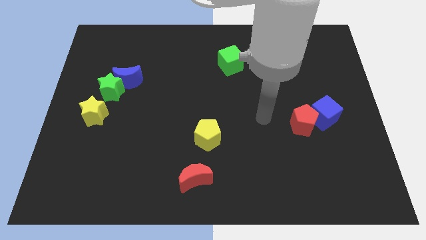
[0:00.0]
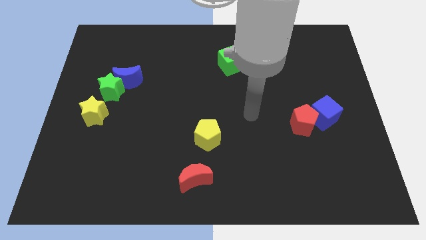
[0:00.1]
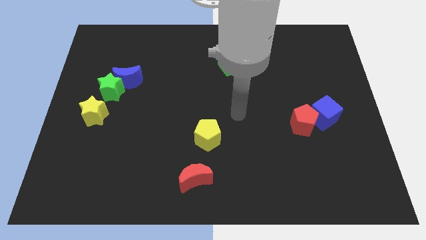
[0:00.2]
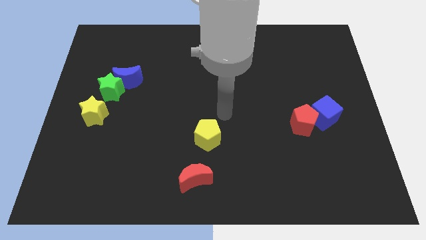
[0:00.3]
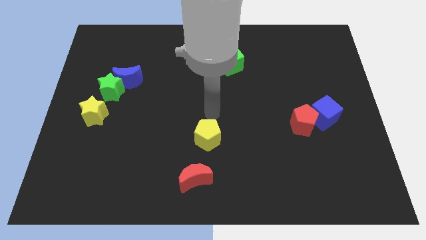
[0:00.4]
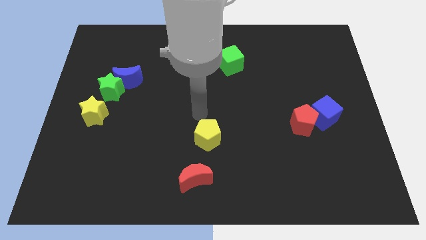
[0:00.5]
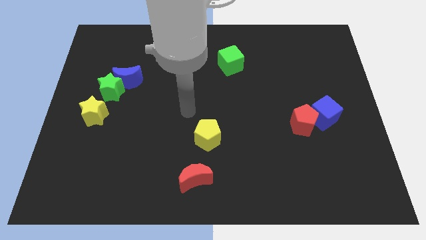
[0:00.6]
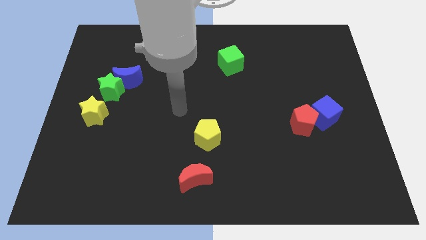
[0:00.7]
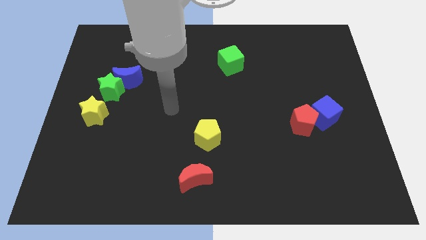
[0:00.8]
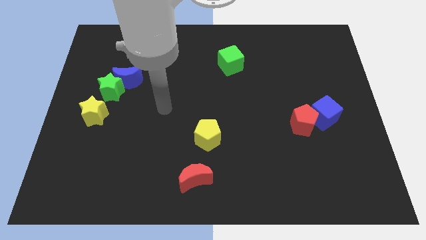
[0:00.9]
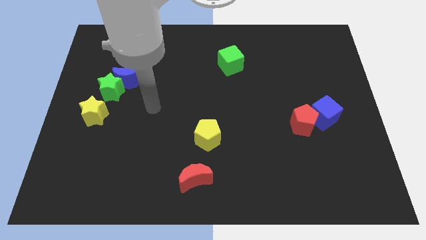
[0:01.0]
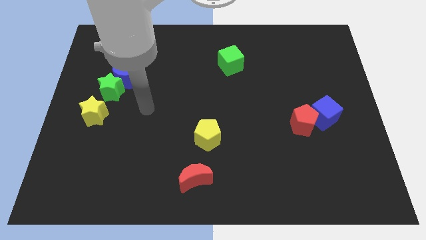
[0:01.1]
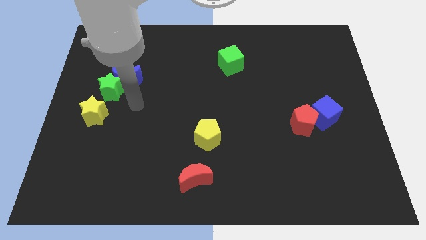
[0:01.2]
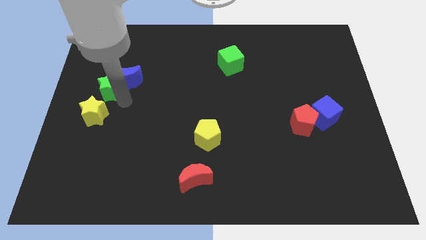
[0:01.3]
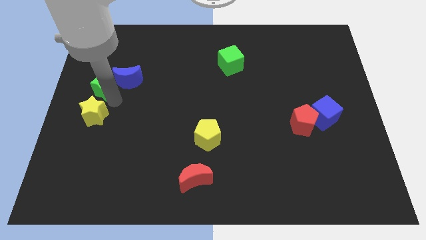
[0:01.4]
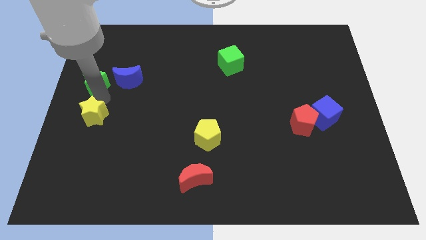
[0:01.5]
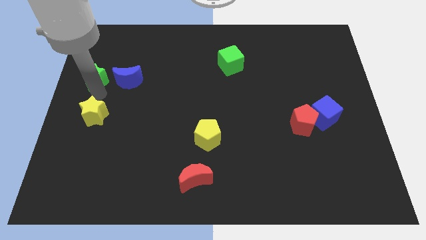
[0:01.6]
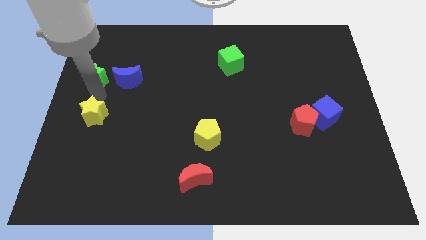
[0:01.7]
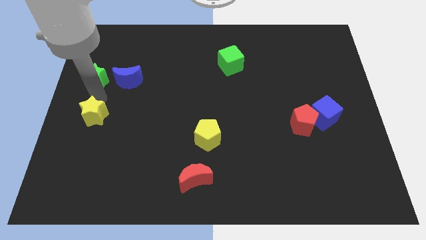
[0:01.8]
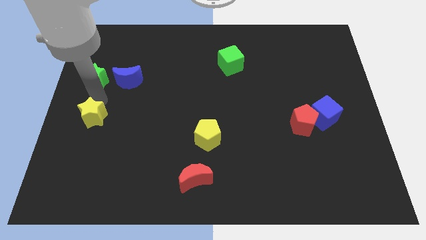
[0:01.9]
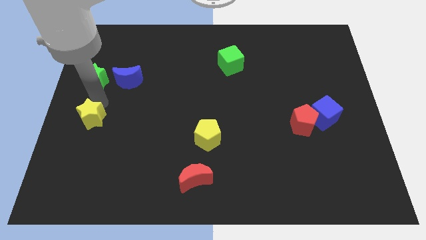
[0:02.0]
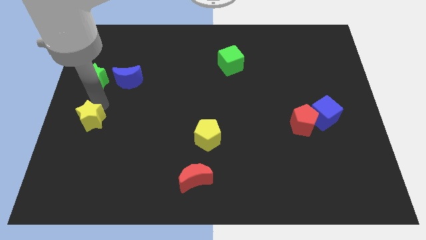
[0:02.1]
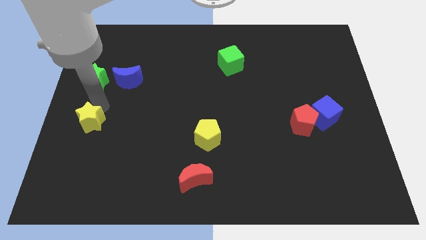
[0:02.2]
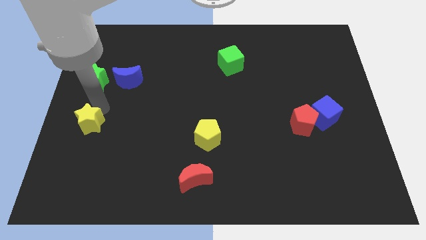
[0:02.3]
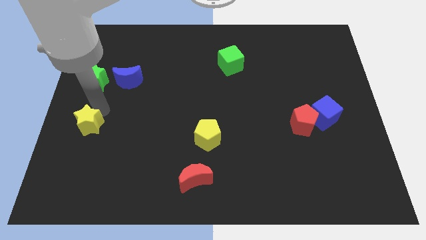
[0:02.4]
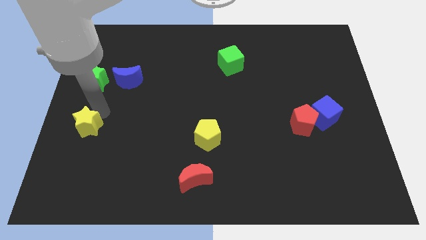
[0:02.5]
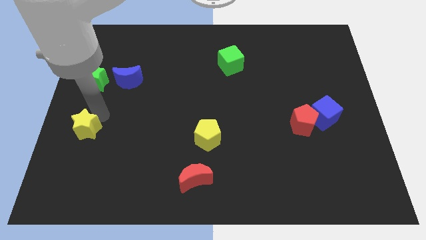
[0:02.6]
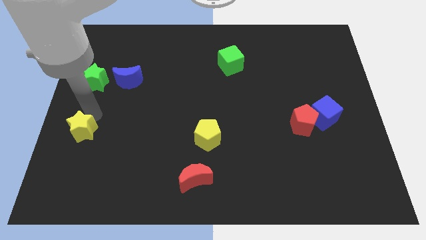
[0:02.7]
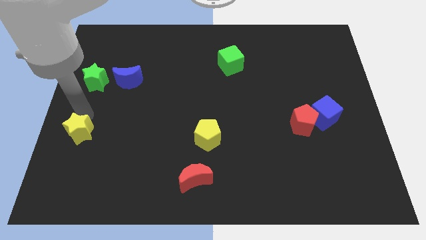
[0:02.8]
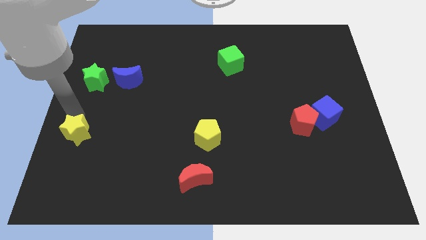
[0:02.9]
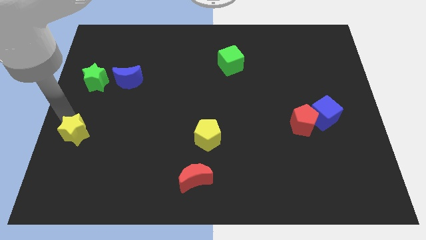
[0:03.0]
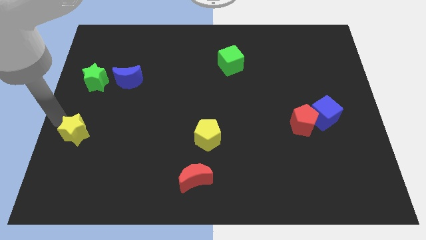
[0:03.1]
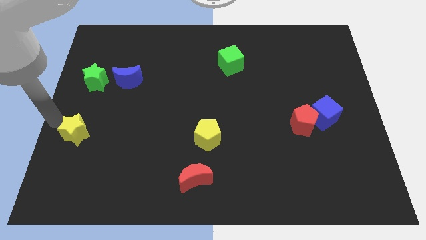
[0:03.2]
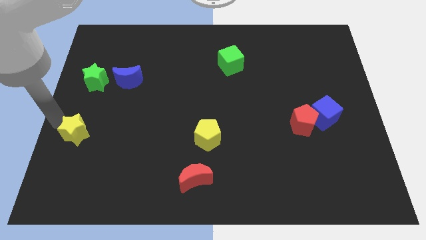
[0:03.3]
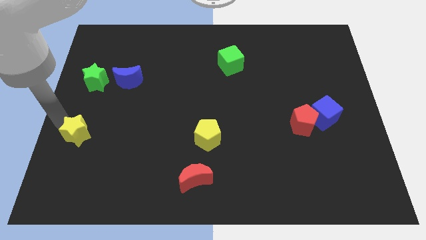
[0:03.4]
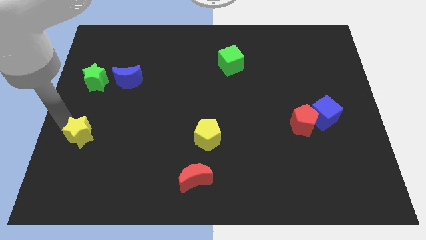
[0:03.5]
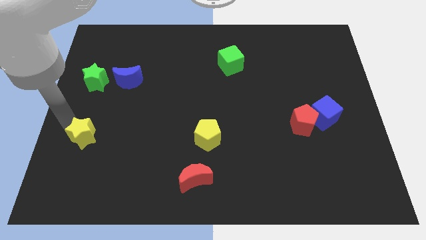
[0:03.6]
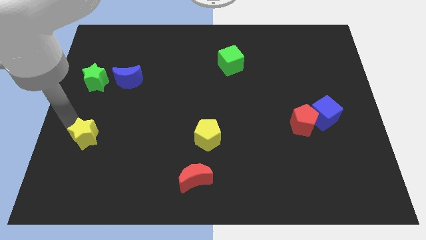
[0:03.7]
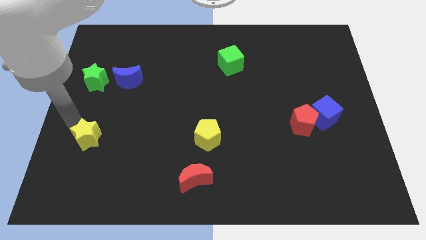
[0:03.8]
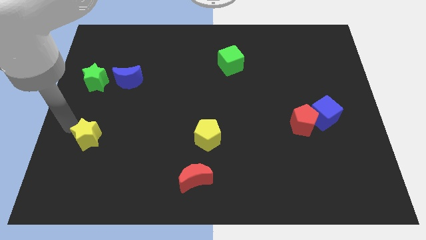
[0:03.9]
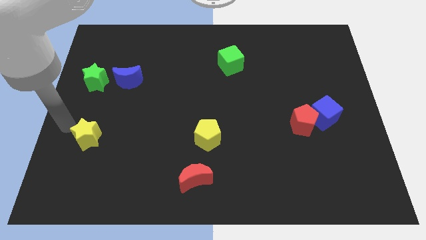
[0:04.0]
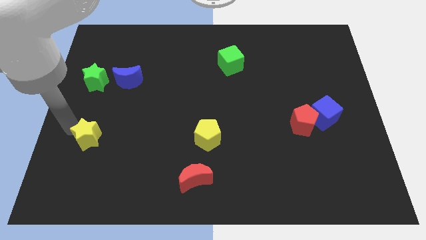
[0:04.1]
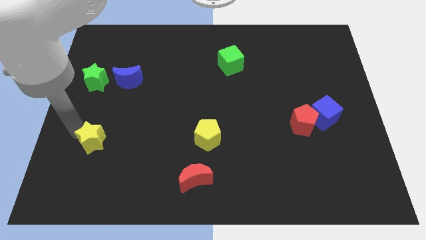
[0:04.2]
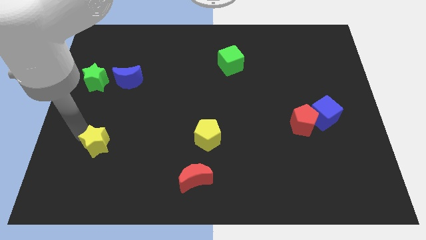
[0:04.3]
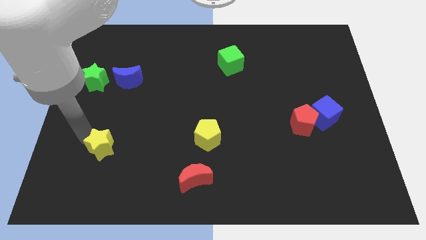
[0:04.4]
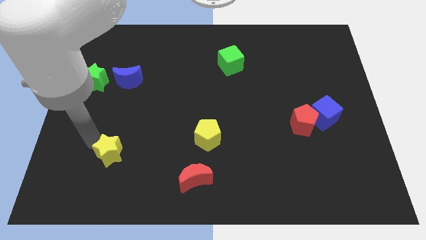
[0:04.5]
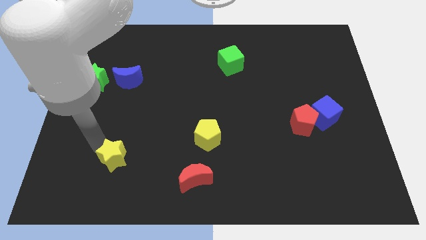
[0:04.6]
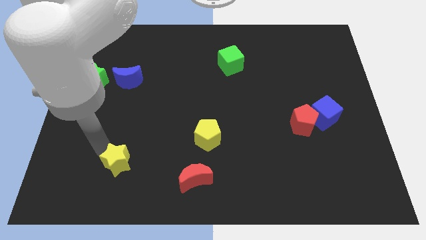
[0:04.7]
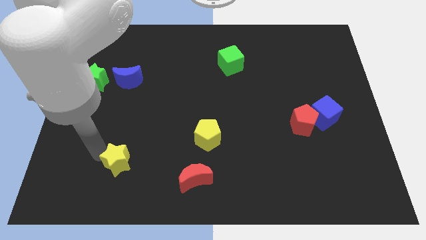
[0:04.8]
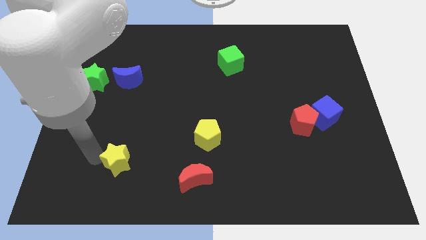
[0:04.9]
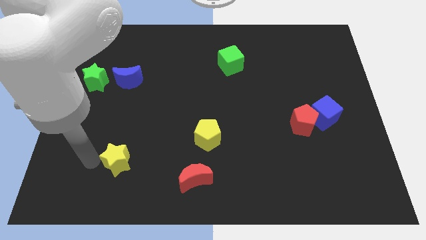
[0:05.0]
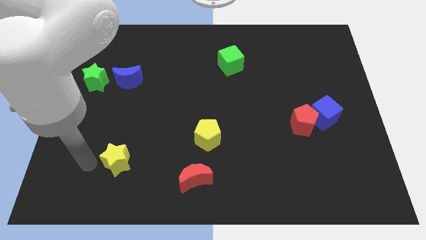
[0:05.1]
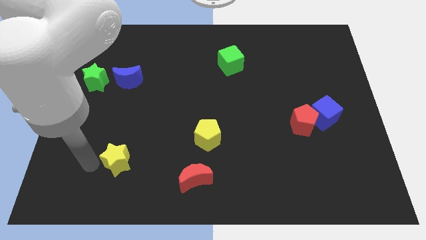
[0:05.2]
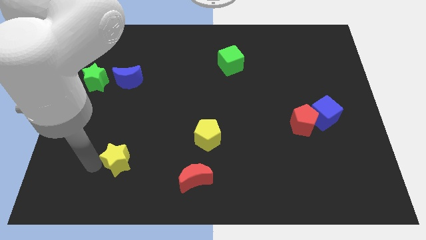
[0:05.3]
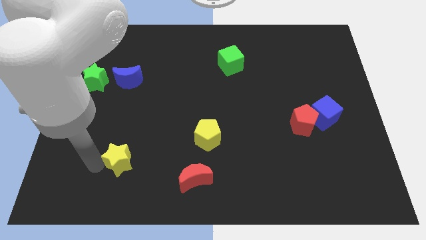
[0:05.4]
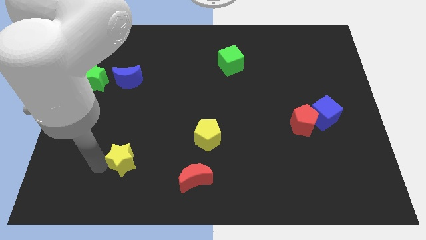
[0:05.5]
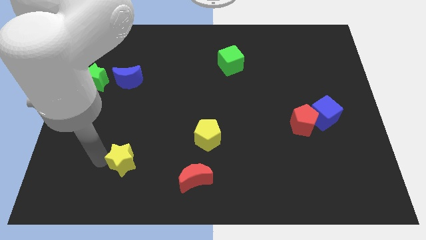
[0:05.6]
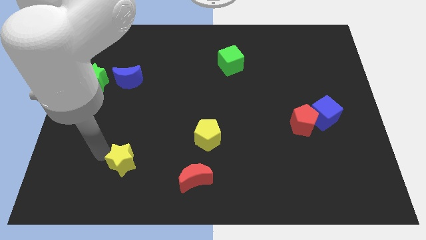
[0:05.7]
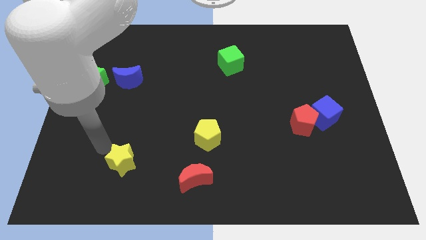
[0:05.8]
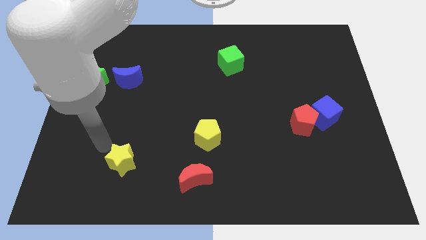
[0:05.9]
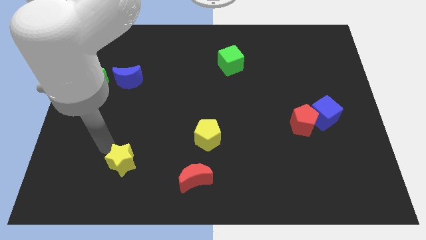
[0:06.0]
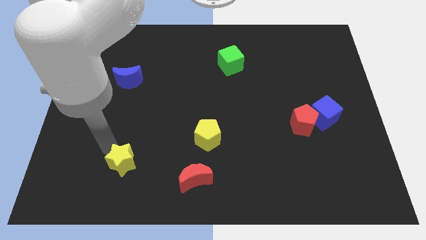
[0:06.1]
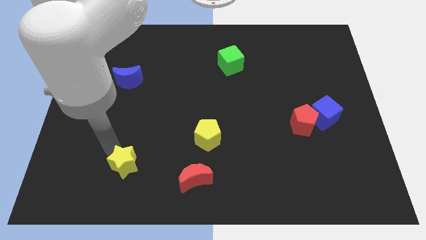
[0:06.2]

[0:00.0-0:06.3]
push the yellow star to the left of the red moon
